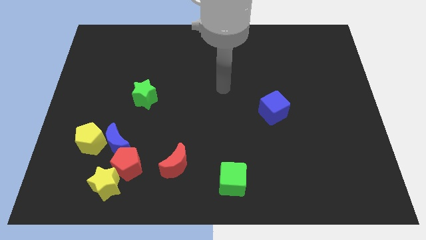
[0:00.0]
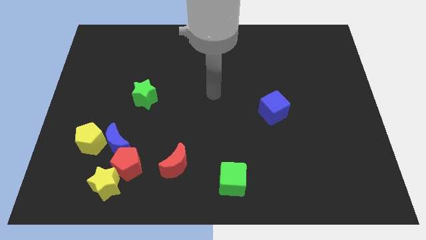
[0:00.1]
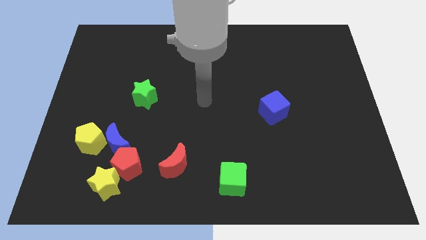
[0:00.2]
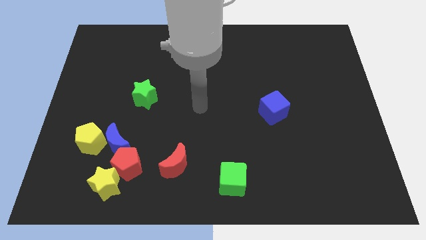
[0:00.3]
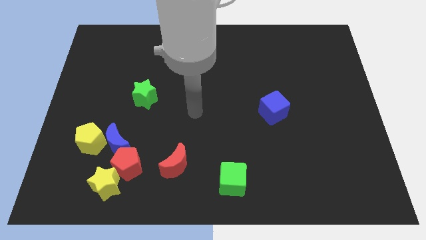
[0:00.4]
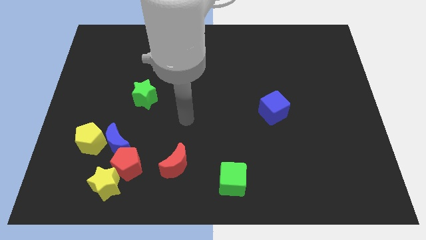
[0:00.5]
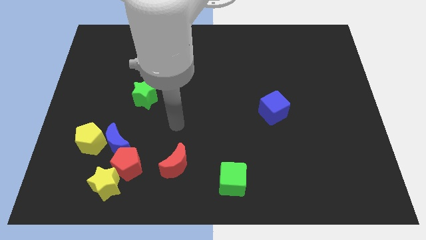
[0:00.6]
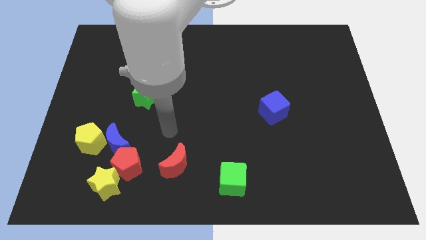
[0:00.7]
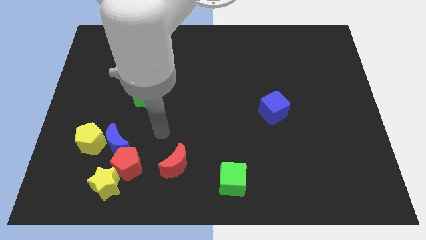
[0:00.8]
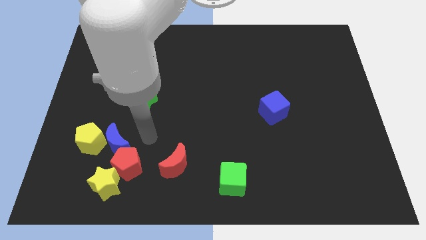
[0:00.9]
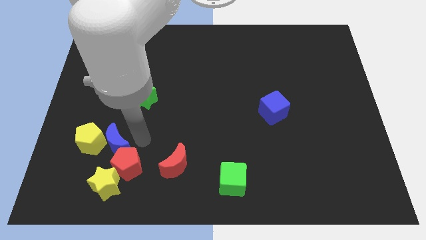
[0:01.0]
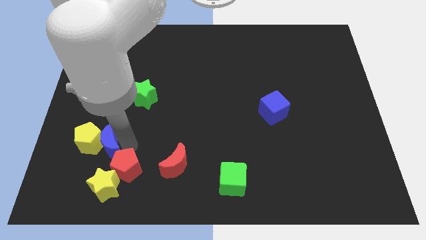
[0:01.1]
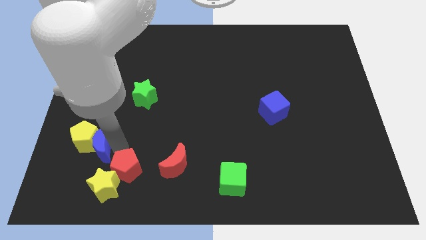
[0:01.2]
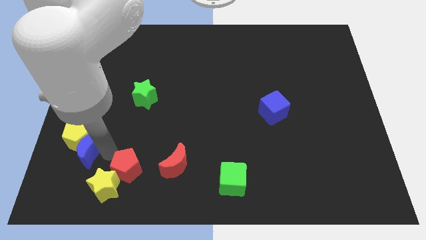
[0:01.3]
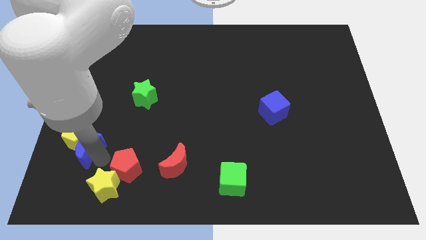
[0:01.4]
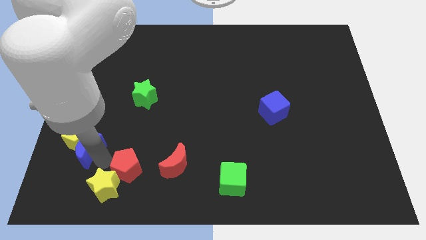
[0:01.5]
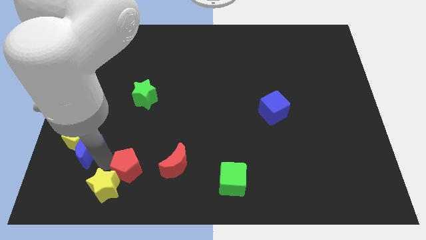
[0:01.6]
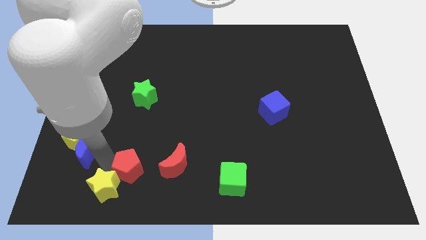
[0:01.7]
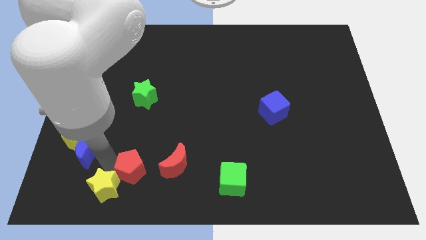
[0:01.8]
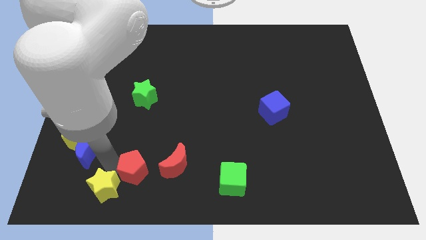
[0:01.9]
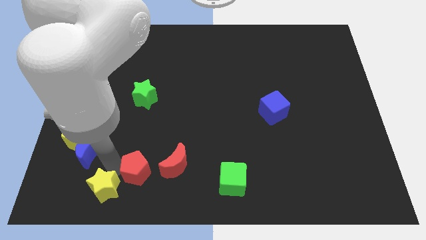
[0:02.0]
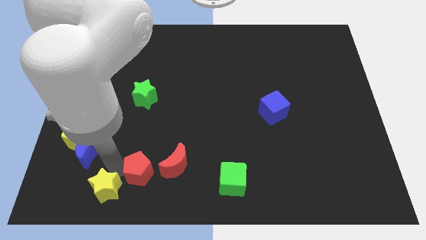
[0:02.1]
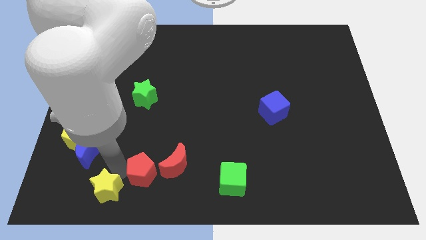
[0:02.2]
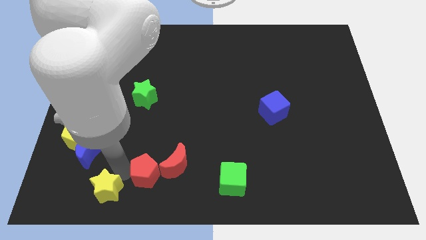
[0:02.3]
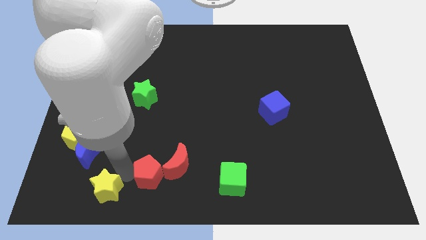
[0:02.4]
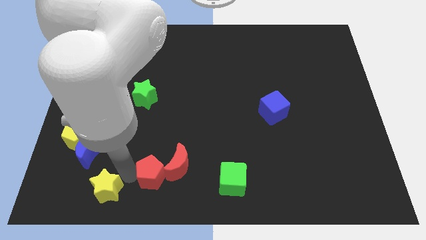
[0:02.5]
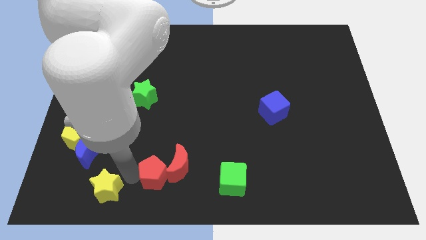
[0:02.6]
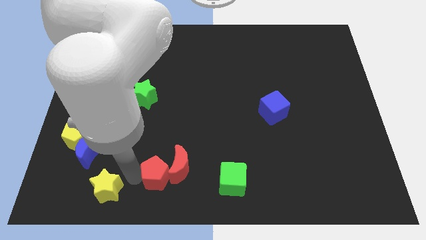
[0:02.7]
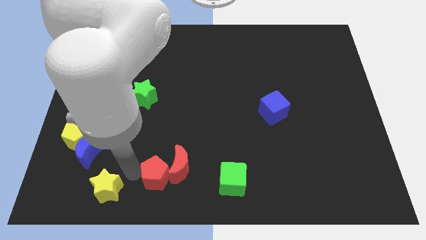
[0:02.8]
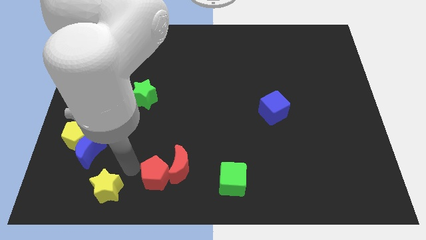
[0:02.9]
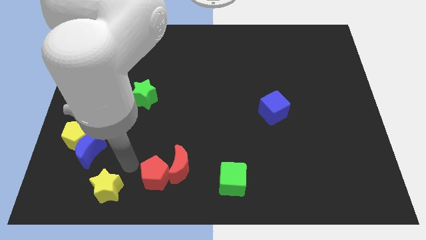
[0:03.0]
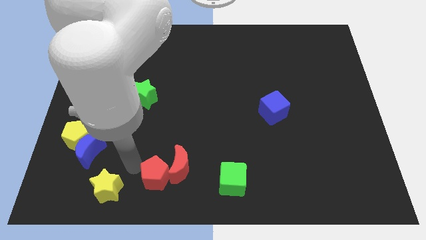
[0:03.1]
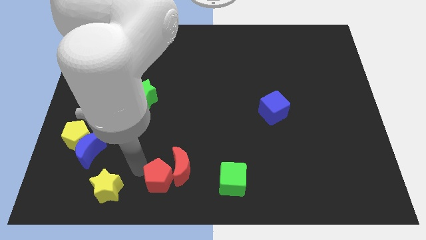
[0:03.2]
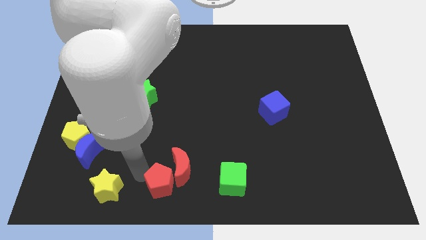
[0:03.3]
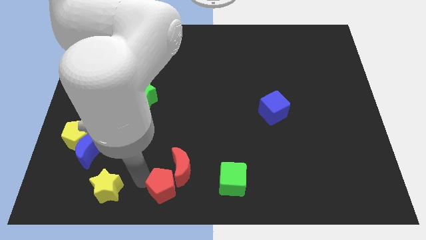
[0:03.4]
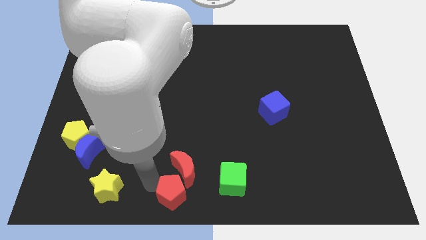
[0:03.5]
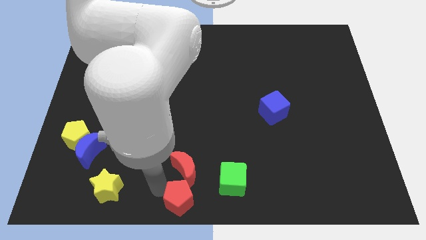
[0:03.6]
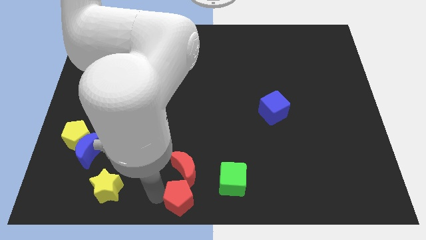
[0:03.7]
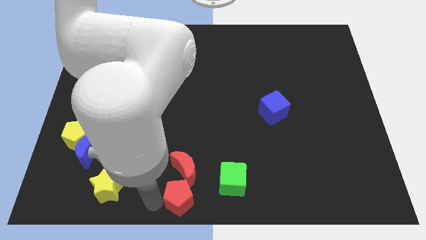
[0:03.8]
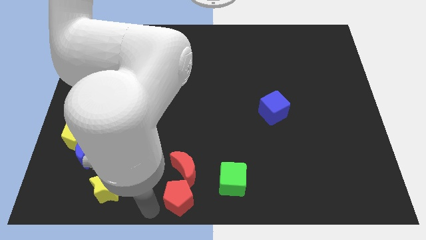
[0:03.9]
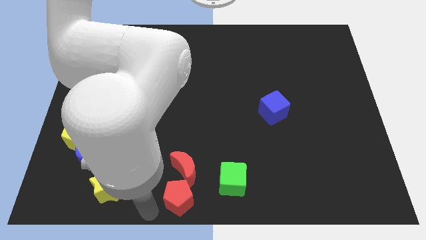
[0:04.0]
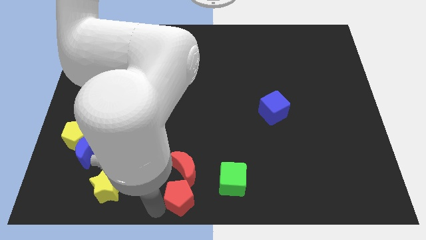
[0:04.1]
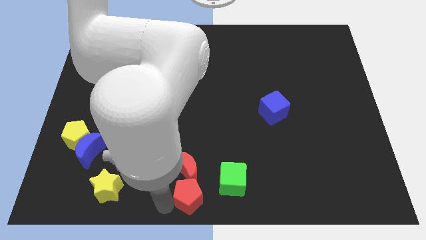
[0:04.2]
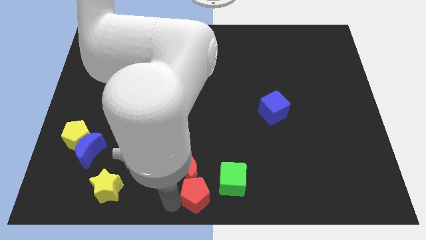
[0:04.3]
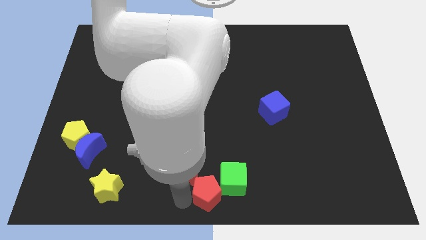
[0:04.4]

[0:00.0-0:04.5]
put the red pentagon to the green cube

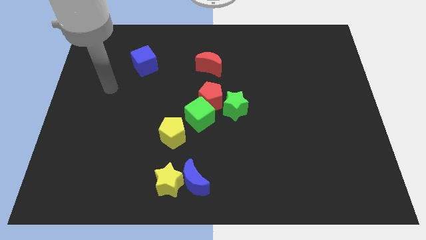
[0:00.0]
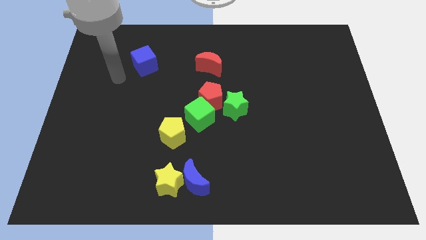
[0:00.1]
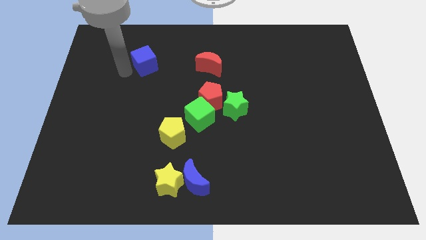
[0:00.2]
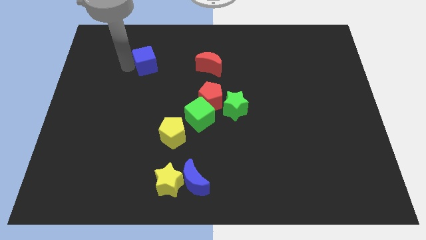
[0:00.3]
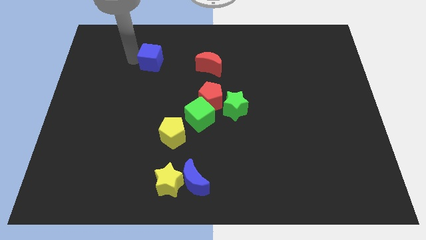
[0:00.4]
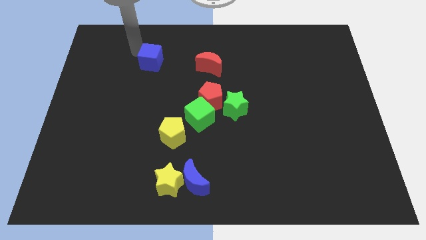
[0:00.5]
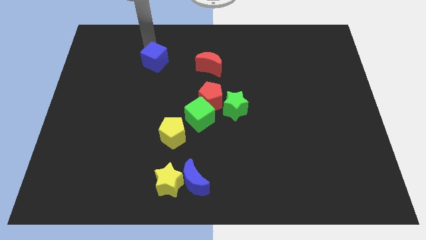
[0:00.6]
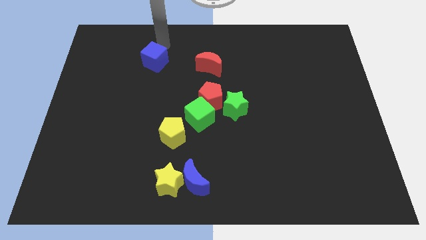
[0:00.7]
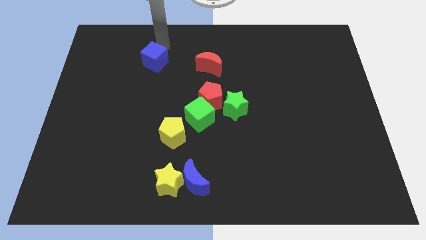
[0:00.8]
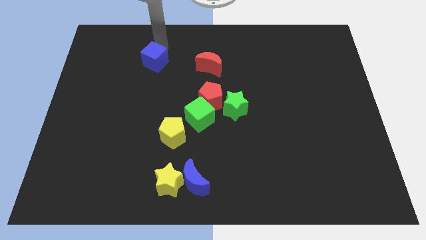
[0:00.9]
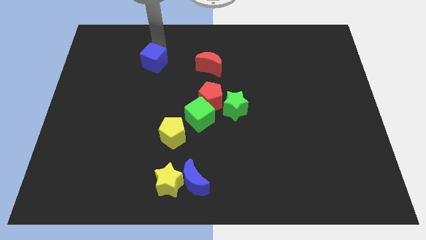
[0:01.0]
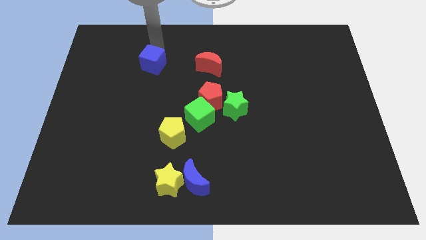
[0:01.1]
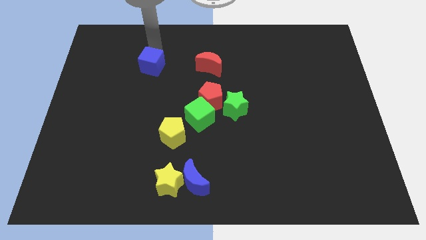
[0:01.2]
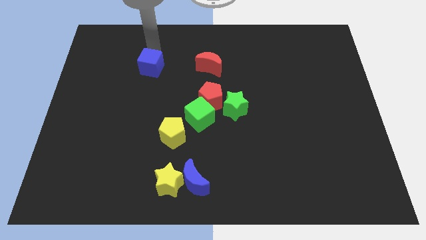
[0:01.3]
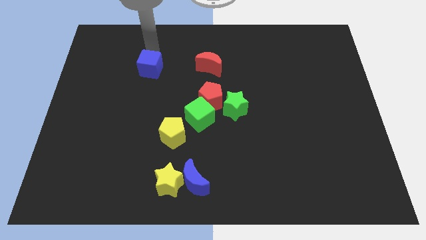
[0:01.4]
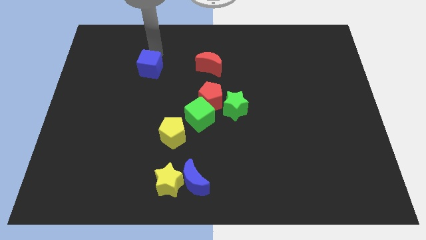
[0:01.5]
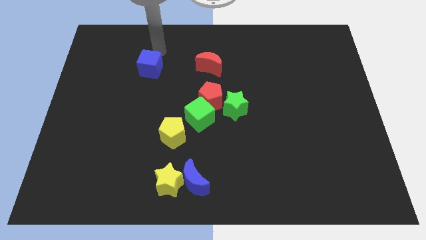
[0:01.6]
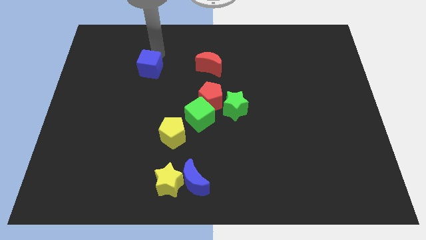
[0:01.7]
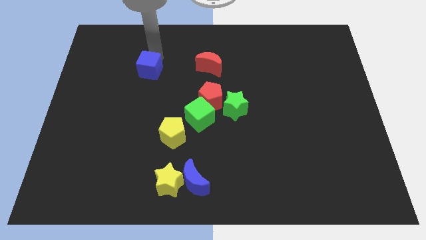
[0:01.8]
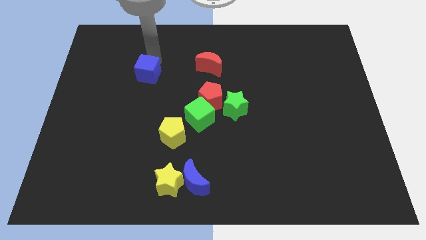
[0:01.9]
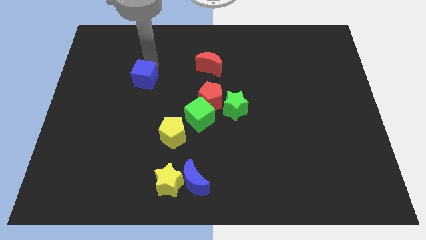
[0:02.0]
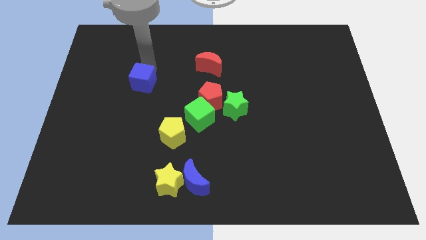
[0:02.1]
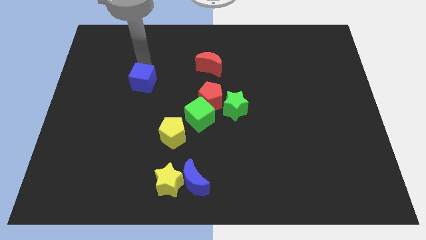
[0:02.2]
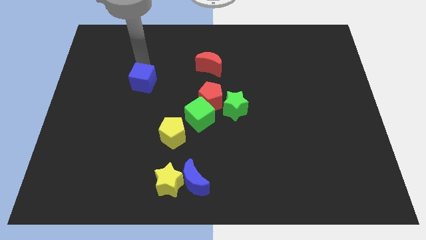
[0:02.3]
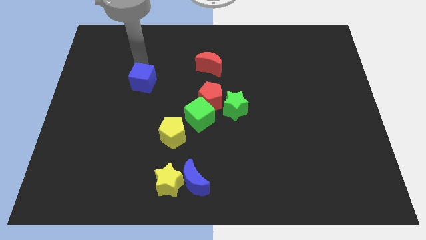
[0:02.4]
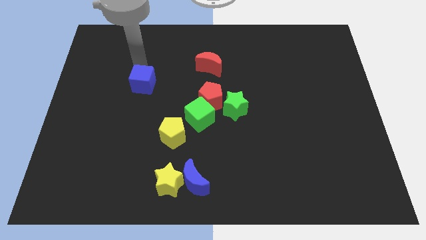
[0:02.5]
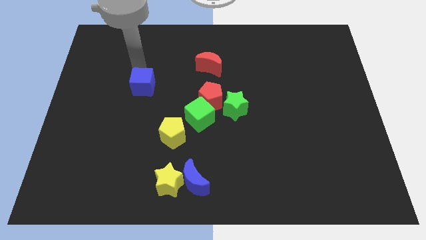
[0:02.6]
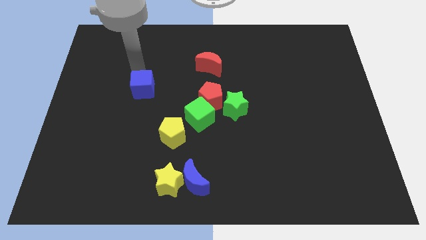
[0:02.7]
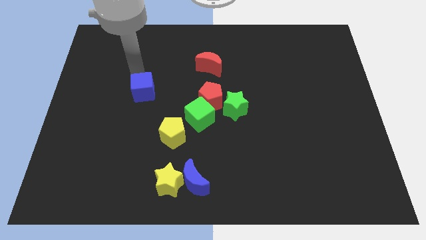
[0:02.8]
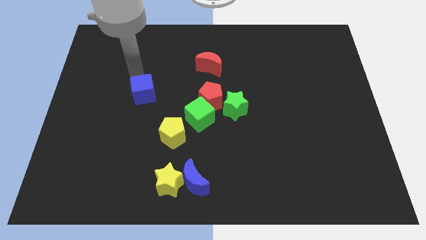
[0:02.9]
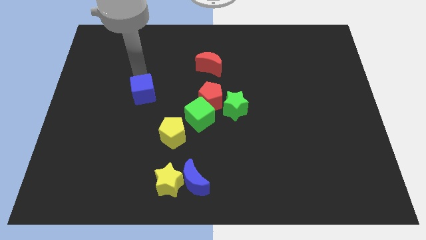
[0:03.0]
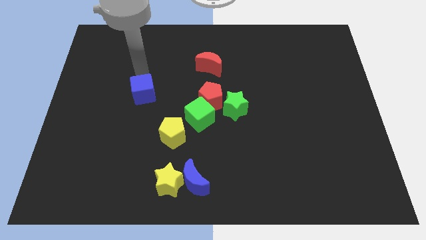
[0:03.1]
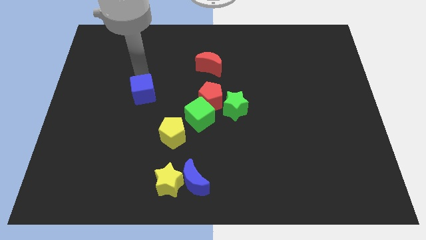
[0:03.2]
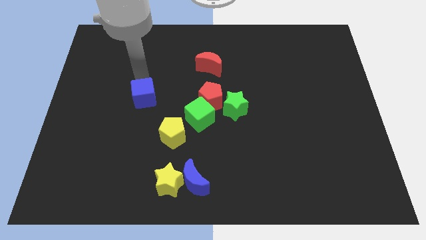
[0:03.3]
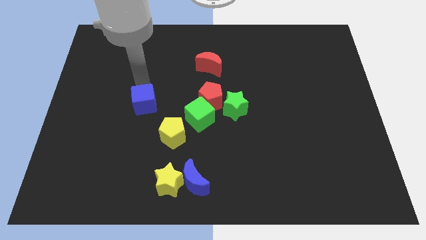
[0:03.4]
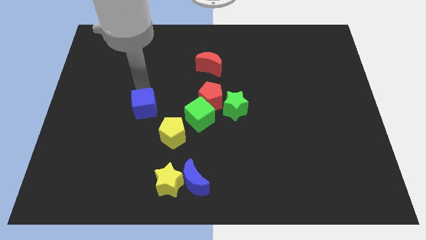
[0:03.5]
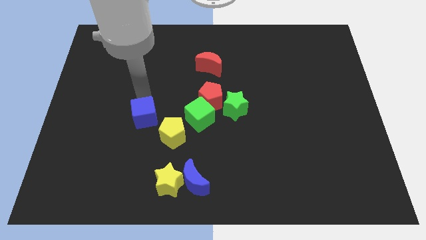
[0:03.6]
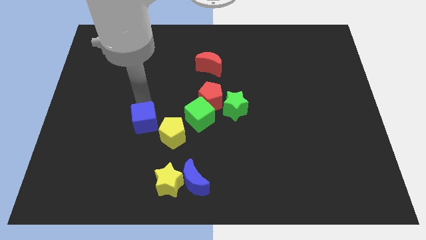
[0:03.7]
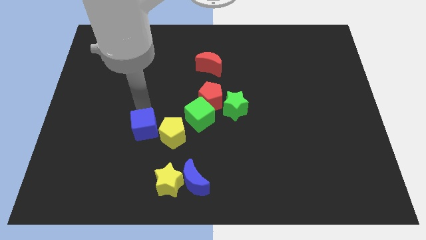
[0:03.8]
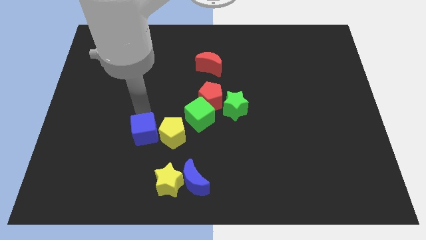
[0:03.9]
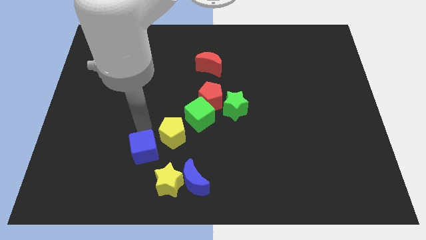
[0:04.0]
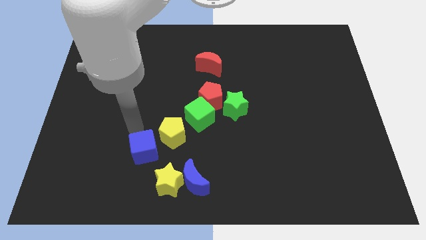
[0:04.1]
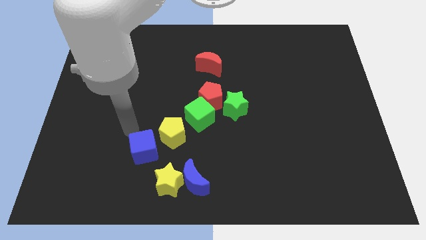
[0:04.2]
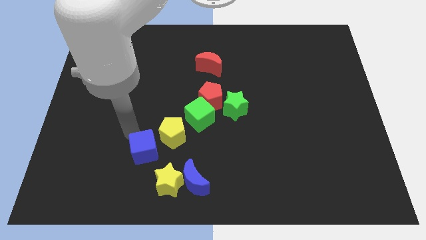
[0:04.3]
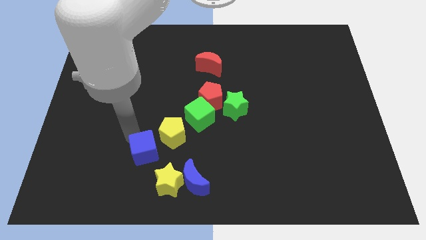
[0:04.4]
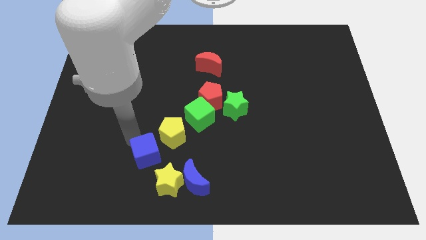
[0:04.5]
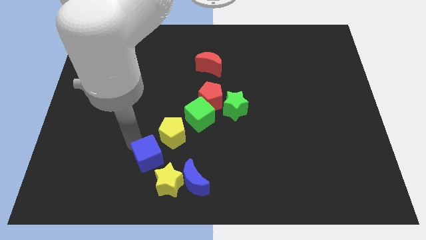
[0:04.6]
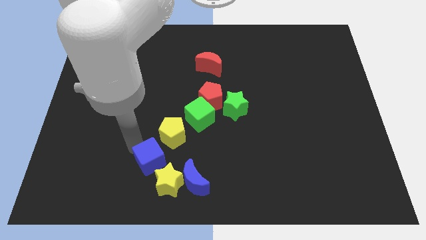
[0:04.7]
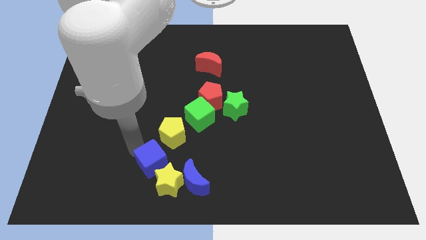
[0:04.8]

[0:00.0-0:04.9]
move the blue cube next to the yellow star
